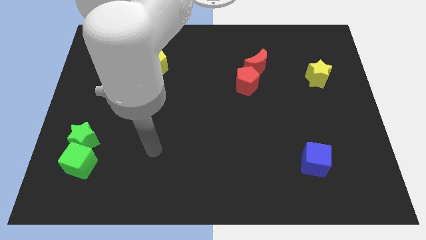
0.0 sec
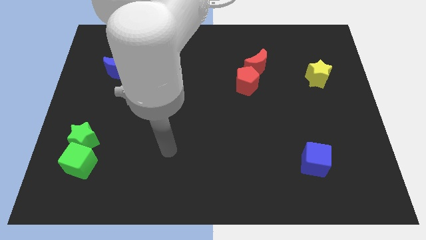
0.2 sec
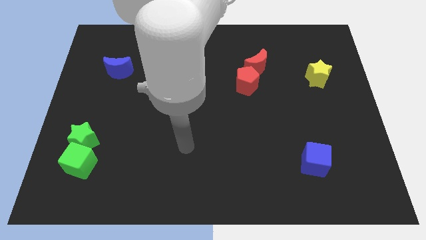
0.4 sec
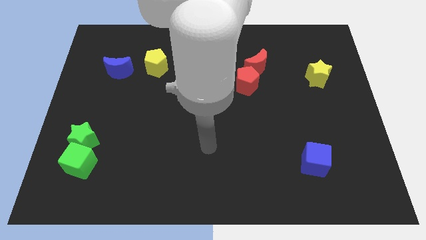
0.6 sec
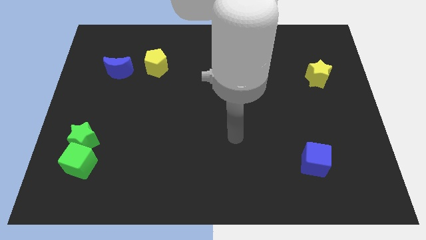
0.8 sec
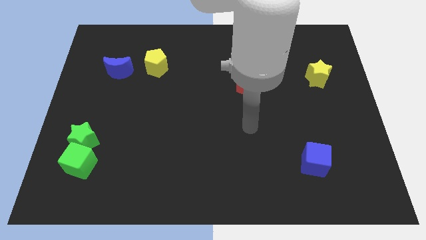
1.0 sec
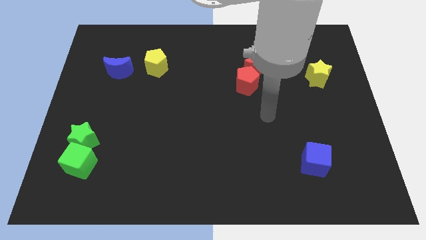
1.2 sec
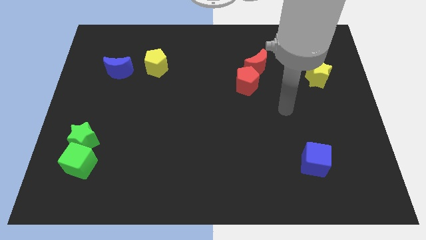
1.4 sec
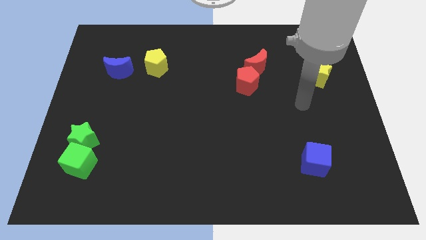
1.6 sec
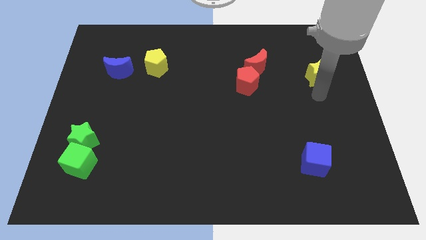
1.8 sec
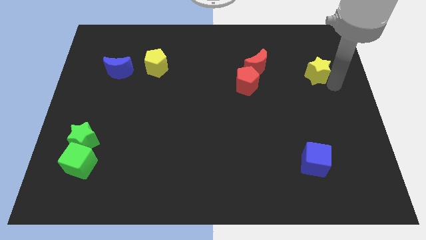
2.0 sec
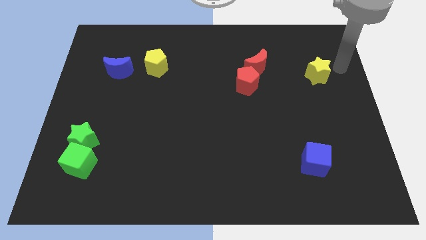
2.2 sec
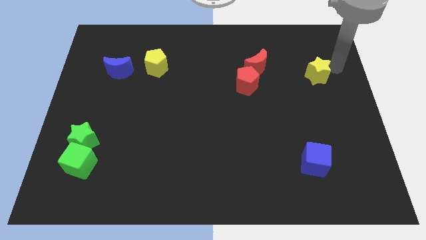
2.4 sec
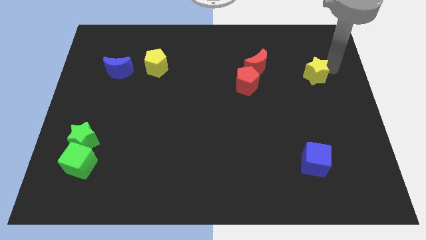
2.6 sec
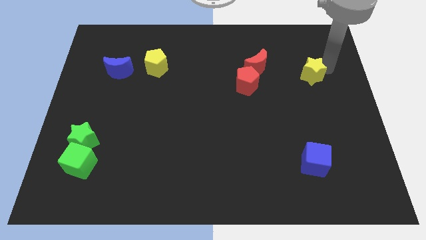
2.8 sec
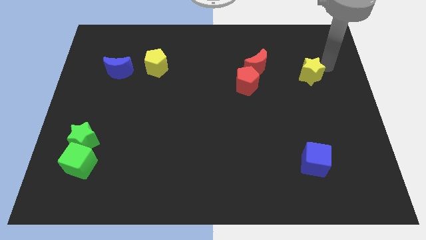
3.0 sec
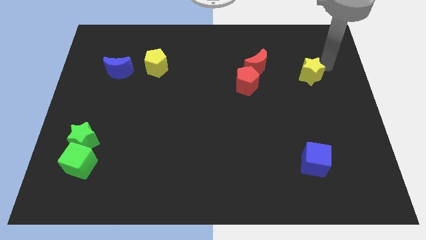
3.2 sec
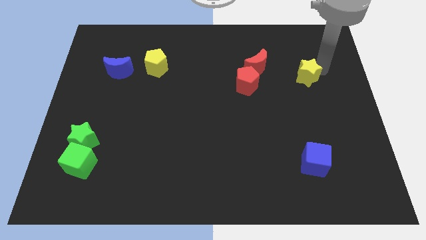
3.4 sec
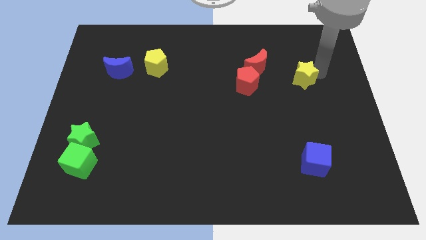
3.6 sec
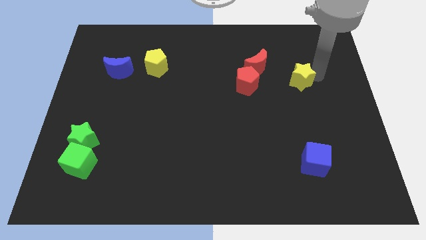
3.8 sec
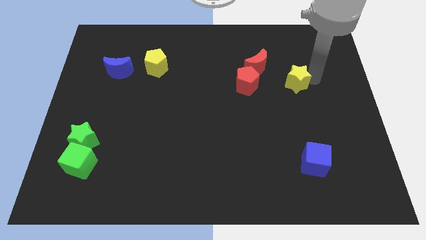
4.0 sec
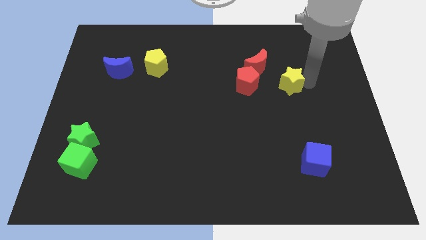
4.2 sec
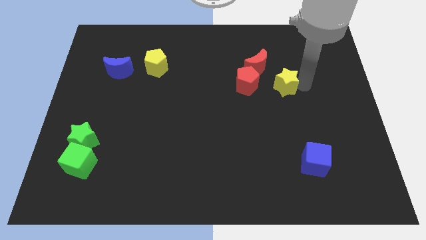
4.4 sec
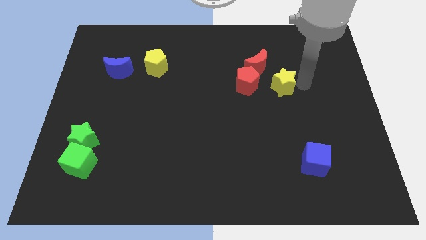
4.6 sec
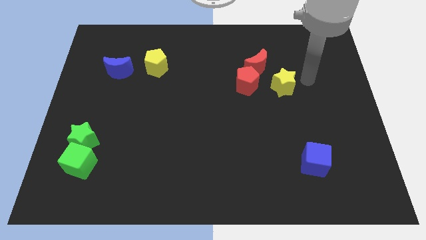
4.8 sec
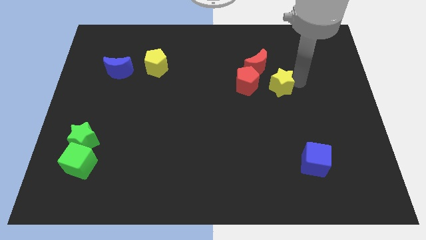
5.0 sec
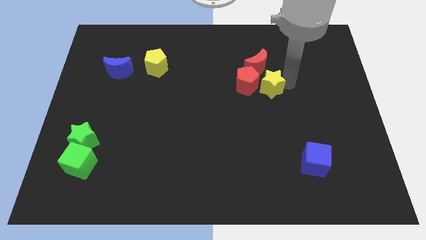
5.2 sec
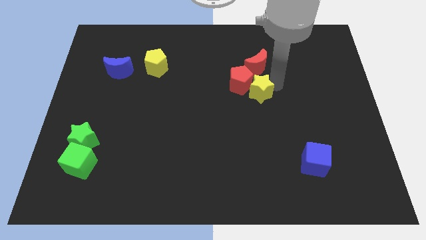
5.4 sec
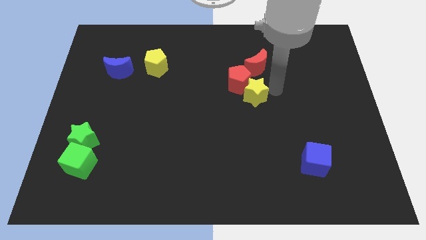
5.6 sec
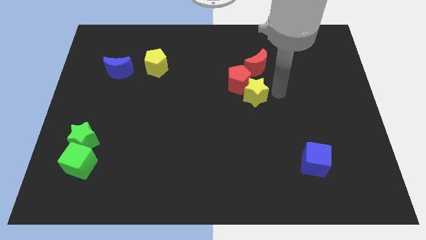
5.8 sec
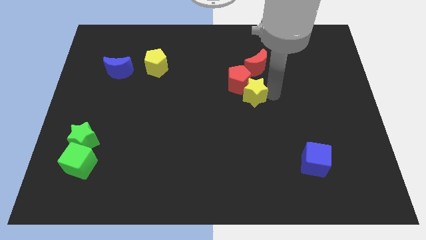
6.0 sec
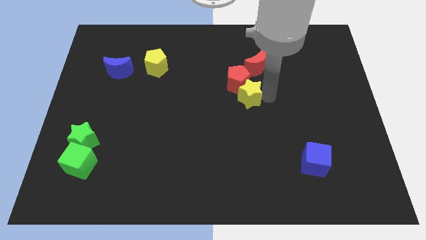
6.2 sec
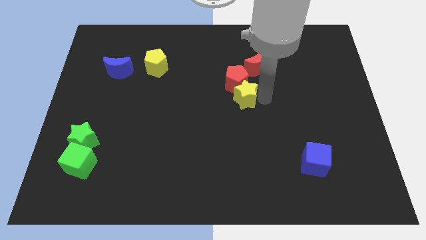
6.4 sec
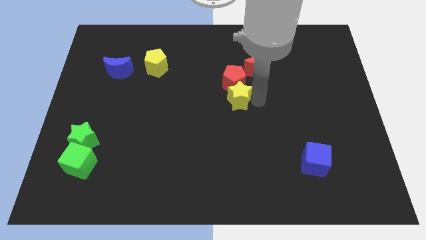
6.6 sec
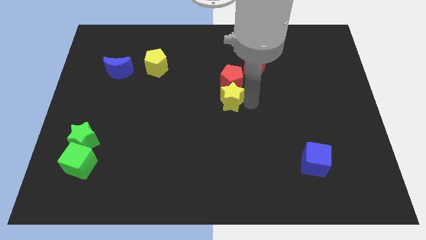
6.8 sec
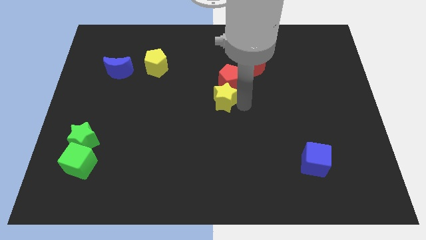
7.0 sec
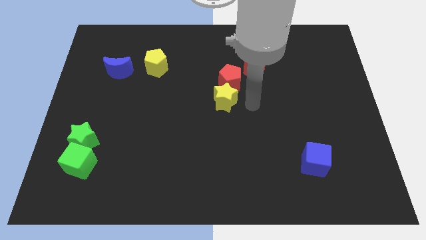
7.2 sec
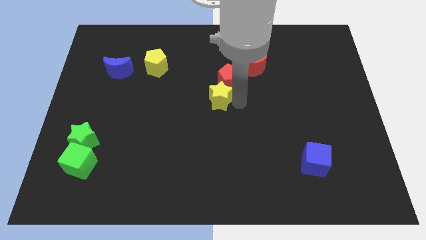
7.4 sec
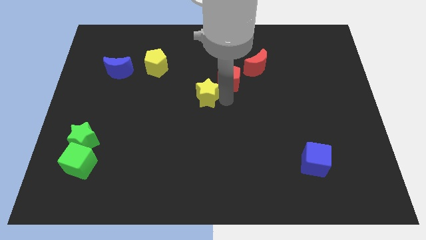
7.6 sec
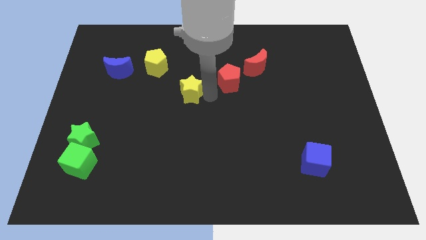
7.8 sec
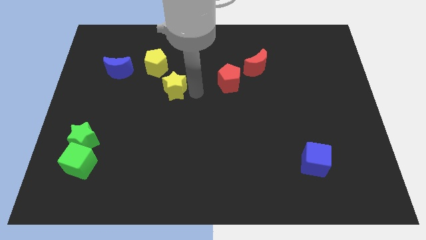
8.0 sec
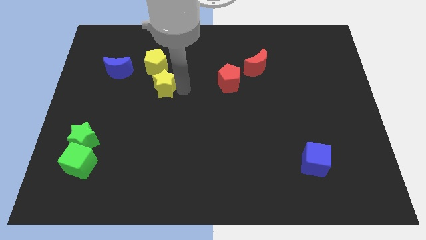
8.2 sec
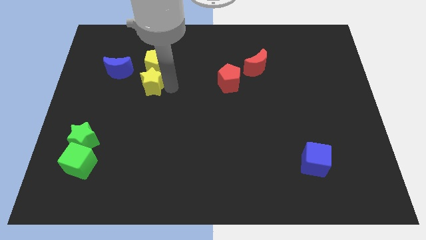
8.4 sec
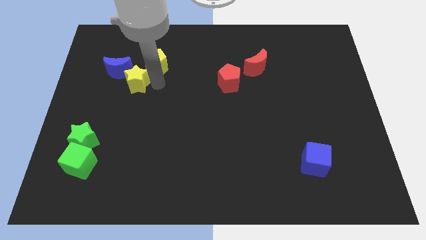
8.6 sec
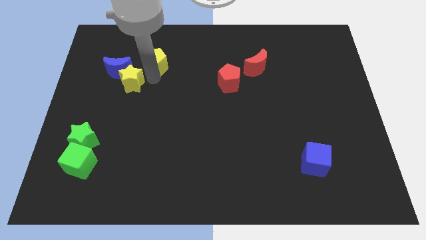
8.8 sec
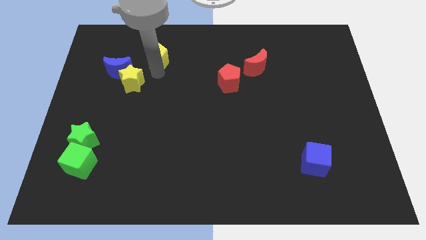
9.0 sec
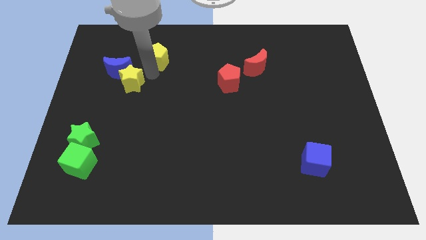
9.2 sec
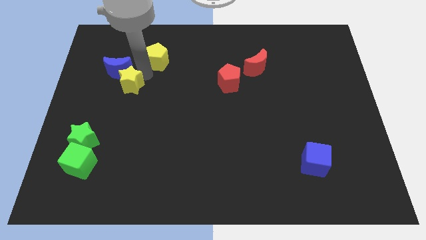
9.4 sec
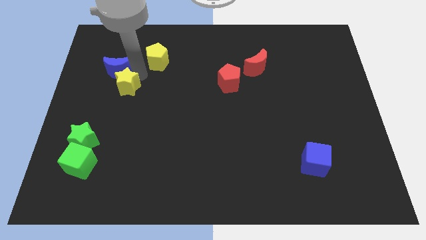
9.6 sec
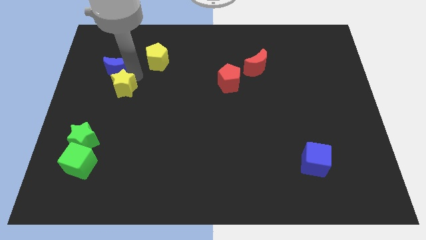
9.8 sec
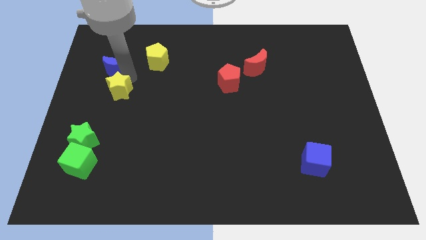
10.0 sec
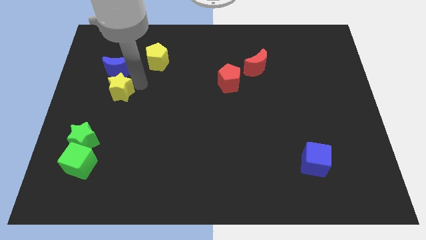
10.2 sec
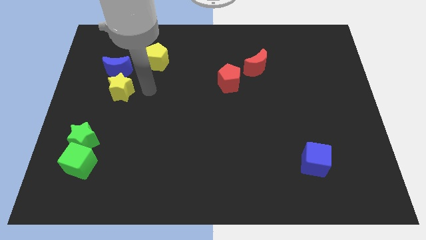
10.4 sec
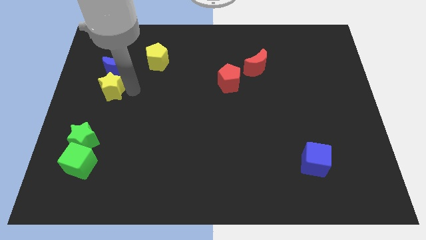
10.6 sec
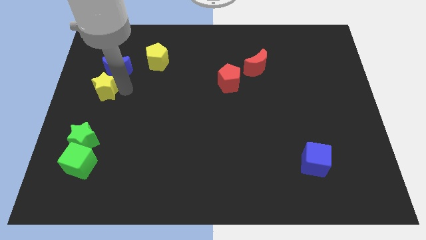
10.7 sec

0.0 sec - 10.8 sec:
push the yellow star to the center left

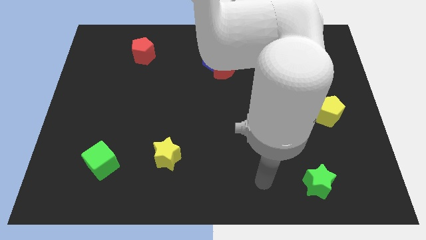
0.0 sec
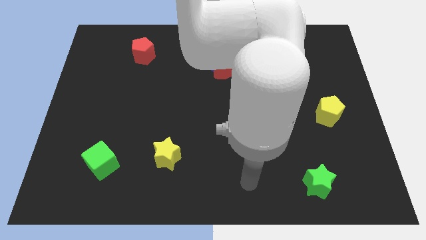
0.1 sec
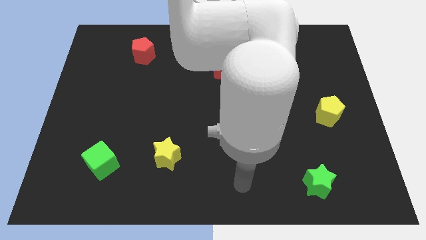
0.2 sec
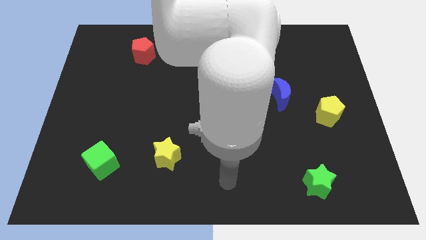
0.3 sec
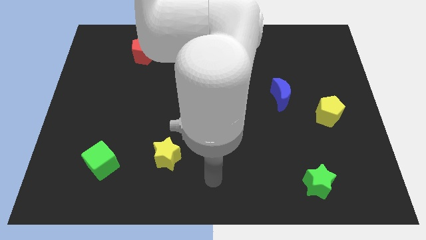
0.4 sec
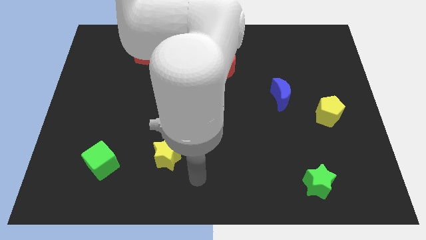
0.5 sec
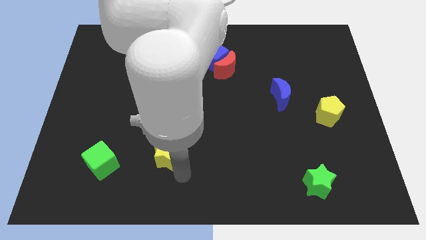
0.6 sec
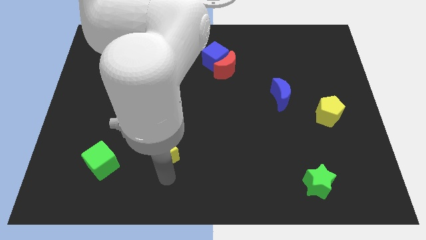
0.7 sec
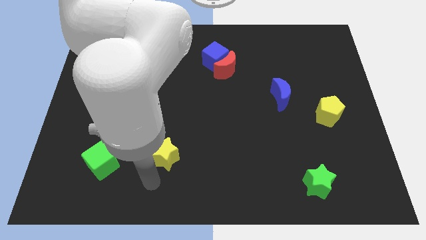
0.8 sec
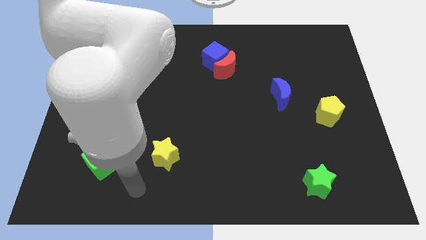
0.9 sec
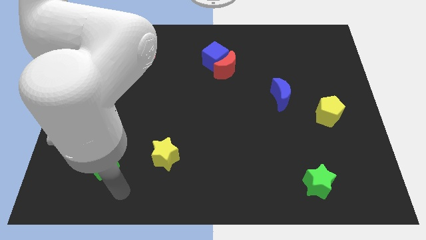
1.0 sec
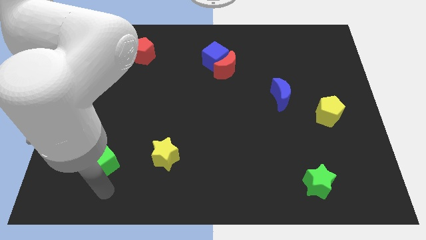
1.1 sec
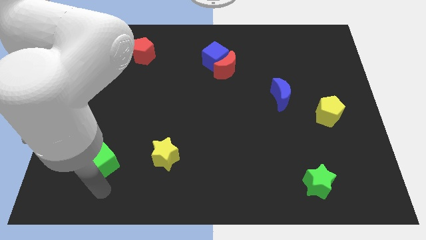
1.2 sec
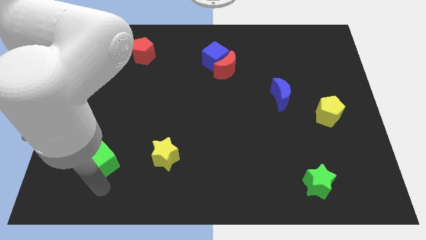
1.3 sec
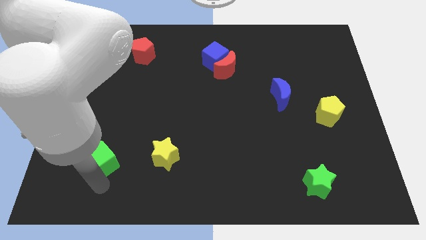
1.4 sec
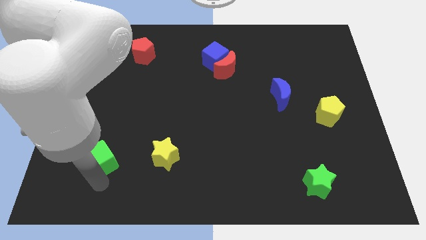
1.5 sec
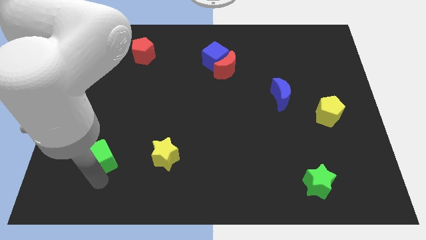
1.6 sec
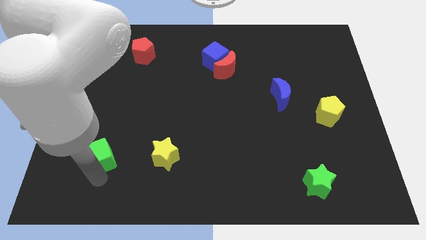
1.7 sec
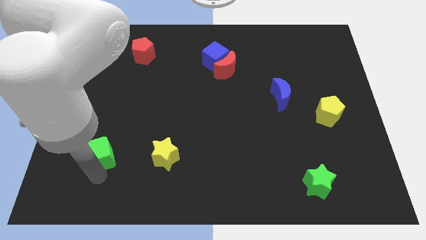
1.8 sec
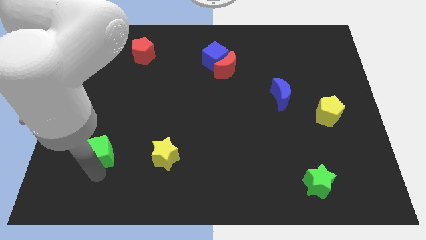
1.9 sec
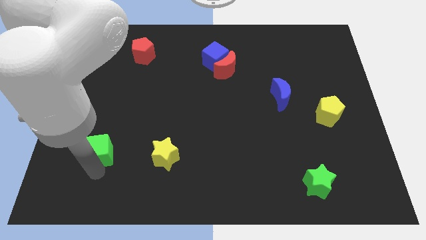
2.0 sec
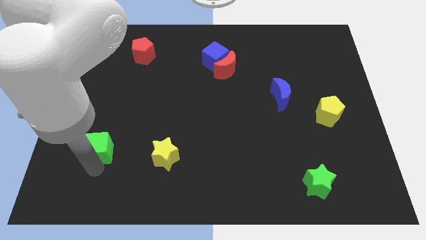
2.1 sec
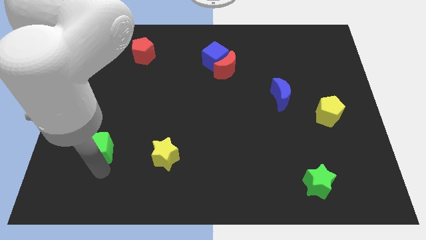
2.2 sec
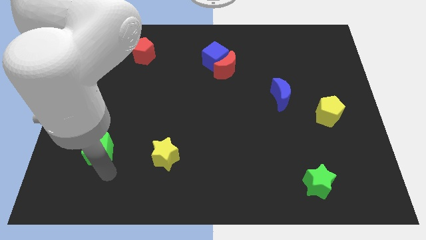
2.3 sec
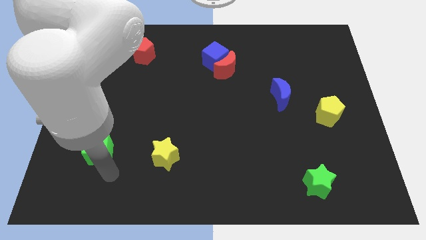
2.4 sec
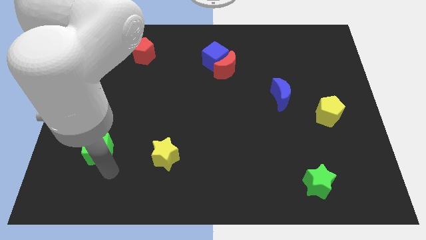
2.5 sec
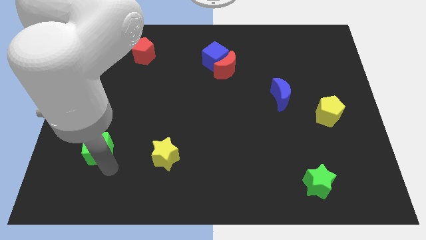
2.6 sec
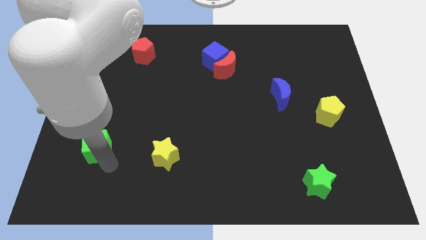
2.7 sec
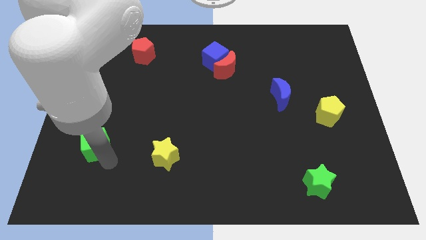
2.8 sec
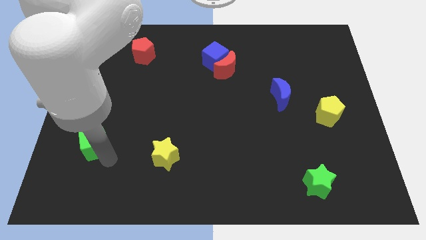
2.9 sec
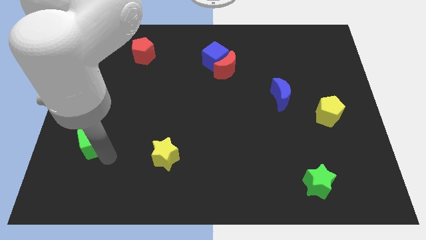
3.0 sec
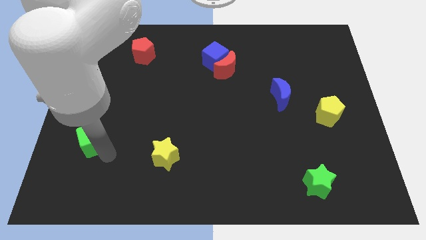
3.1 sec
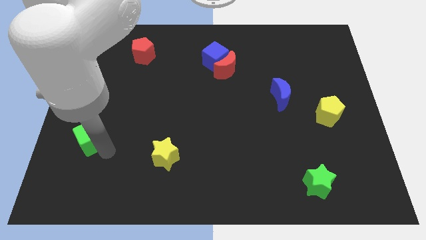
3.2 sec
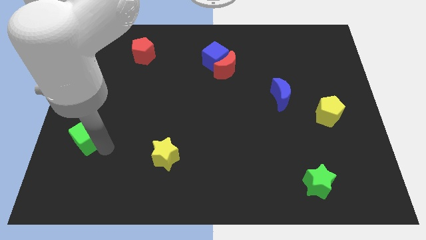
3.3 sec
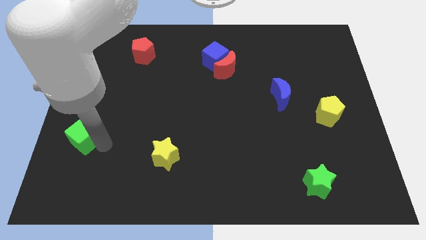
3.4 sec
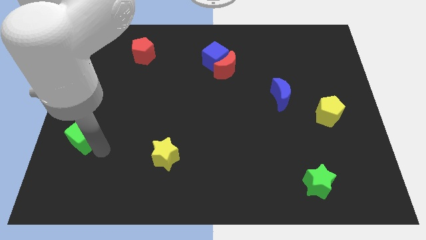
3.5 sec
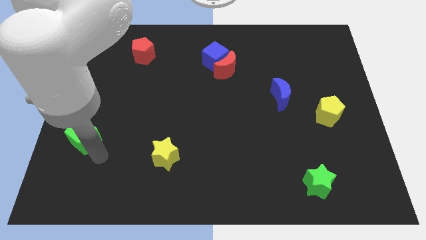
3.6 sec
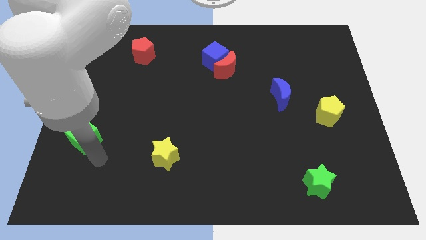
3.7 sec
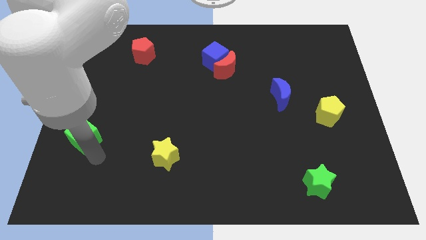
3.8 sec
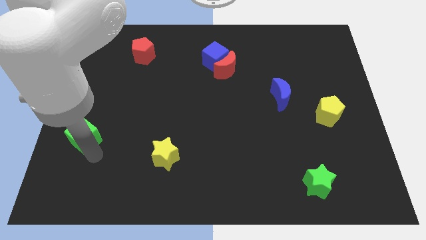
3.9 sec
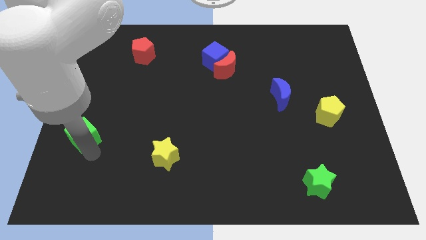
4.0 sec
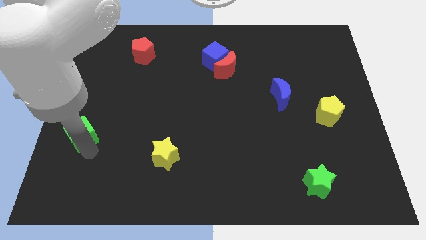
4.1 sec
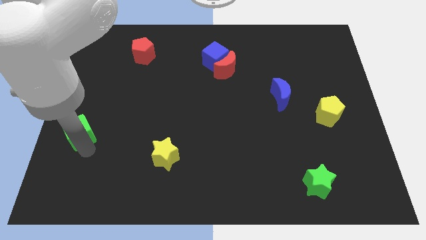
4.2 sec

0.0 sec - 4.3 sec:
move the green cube to the left side
